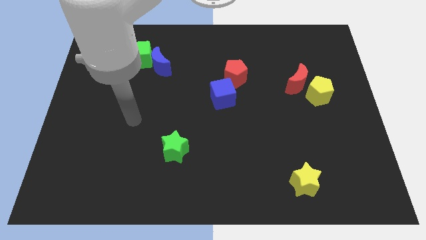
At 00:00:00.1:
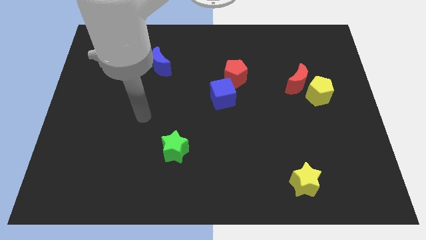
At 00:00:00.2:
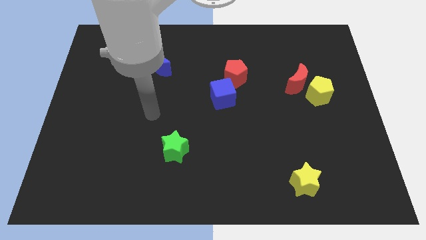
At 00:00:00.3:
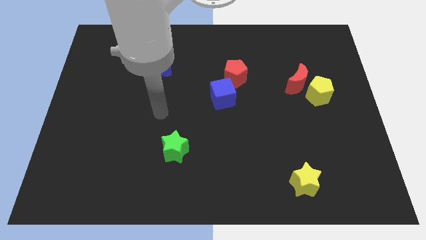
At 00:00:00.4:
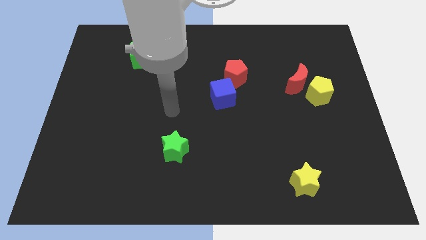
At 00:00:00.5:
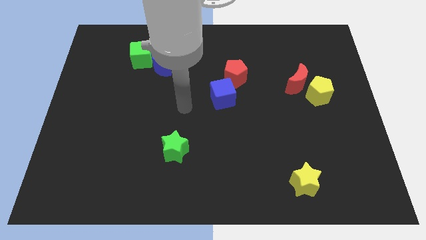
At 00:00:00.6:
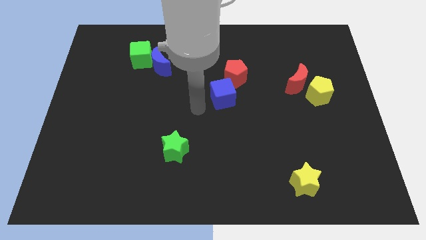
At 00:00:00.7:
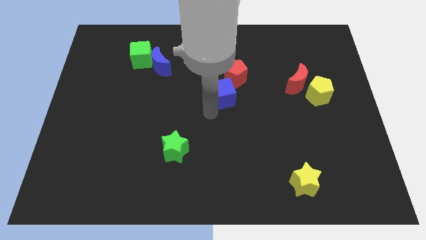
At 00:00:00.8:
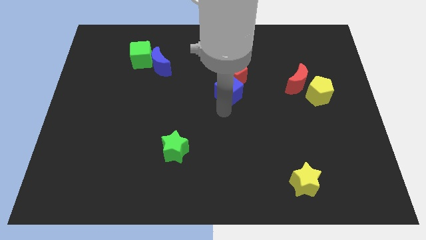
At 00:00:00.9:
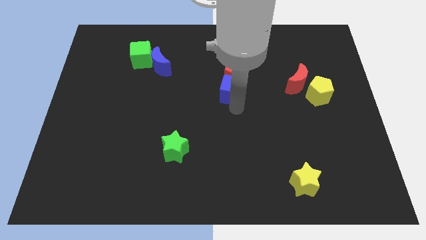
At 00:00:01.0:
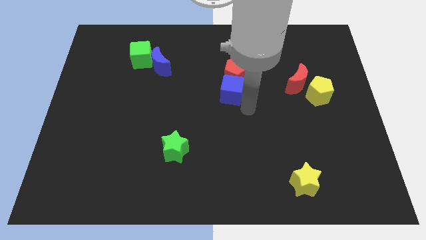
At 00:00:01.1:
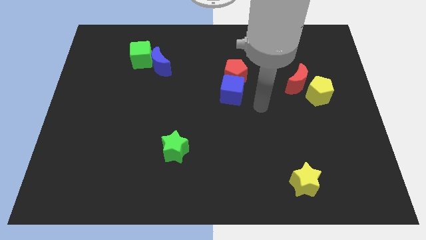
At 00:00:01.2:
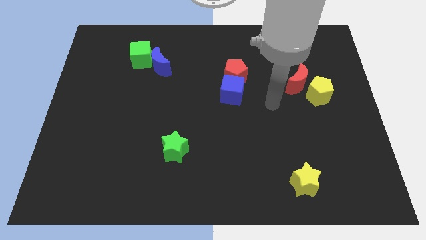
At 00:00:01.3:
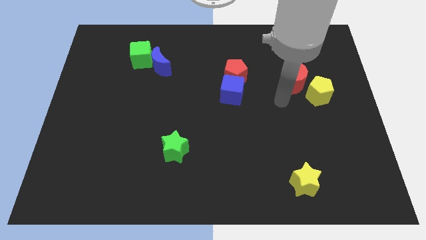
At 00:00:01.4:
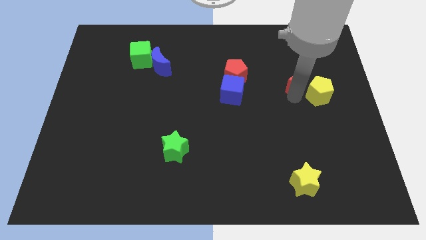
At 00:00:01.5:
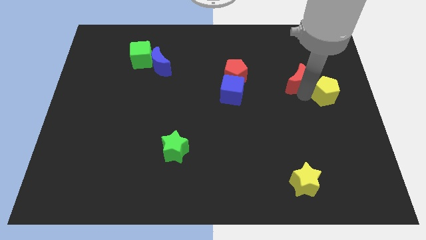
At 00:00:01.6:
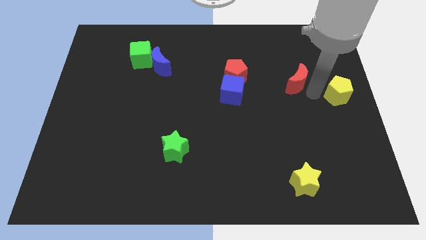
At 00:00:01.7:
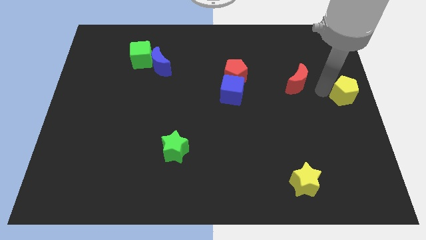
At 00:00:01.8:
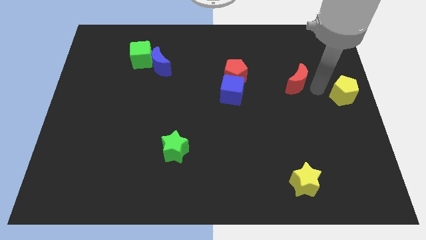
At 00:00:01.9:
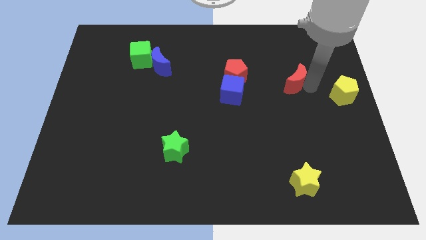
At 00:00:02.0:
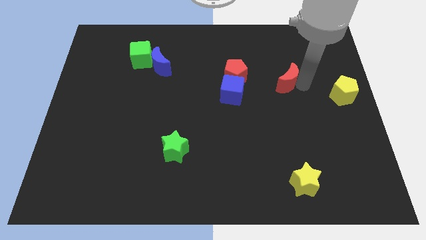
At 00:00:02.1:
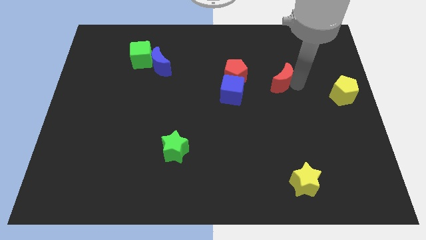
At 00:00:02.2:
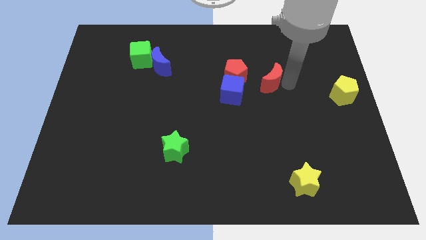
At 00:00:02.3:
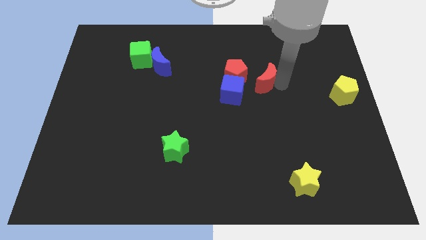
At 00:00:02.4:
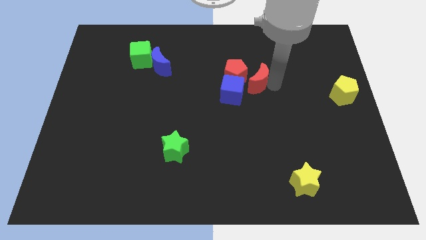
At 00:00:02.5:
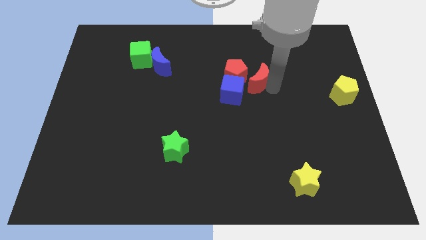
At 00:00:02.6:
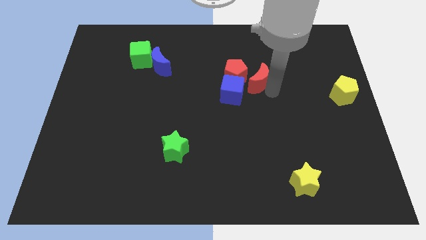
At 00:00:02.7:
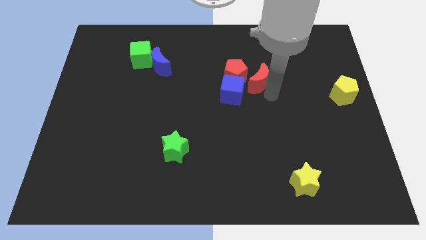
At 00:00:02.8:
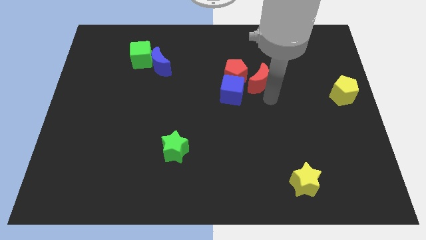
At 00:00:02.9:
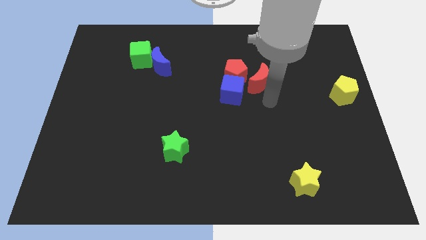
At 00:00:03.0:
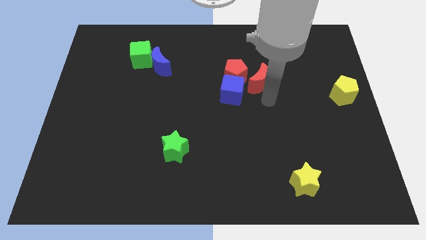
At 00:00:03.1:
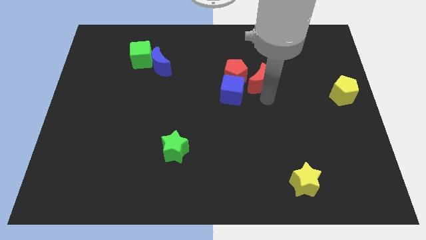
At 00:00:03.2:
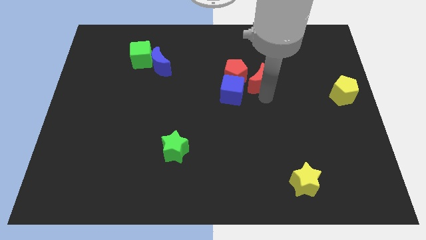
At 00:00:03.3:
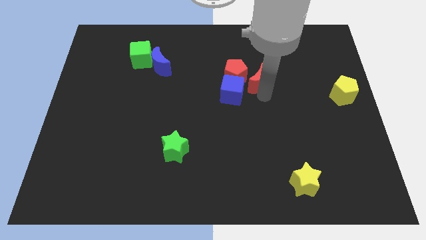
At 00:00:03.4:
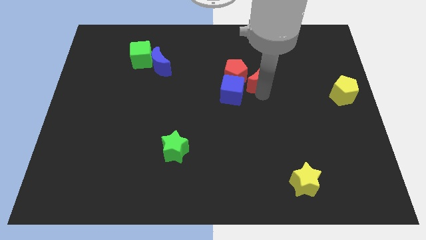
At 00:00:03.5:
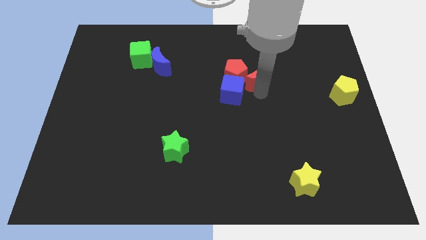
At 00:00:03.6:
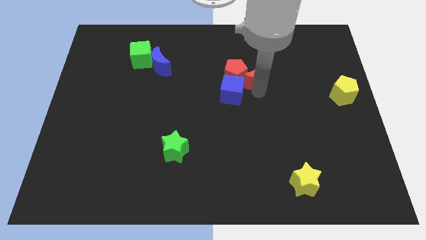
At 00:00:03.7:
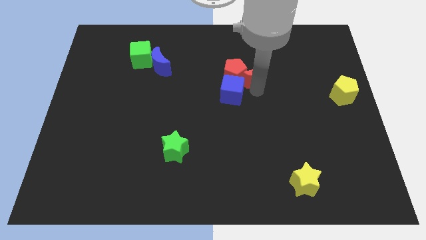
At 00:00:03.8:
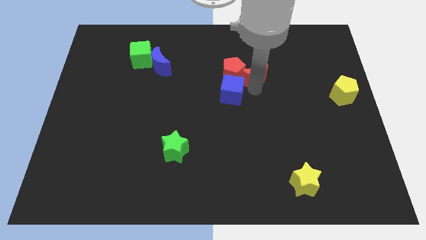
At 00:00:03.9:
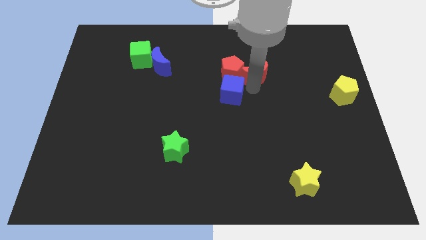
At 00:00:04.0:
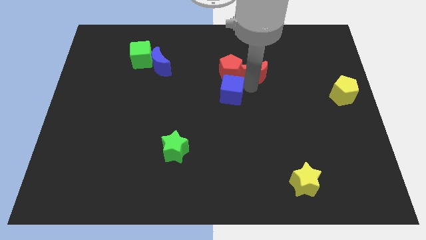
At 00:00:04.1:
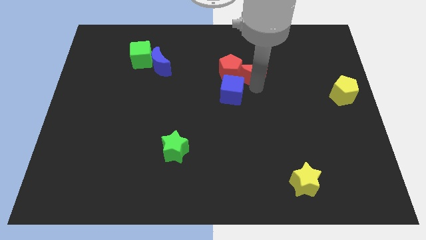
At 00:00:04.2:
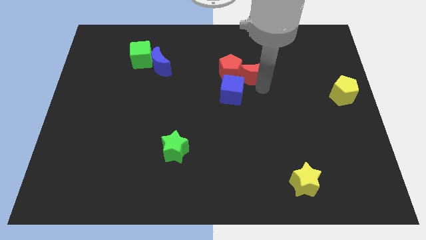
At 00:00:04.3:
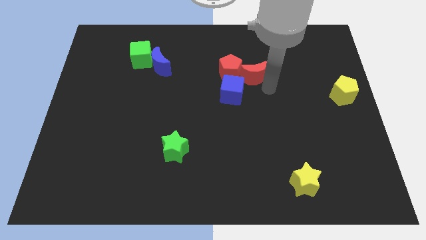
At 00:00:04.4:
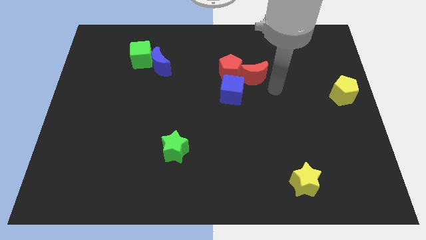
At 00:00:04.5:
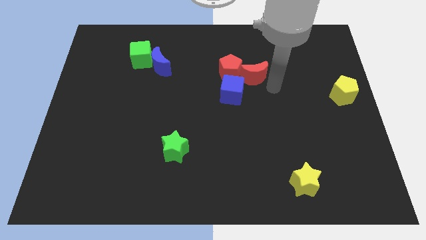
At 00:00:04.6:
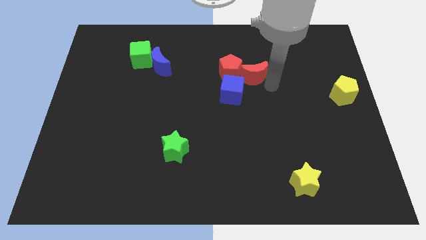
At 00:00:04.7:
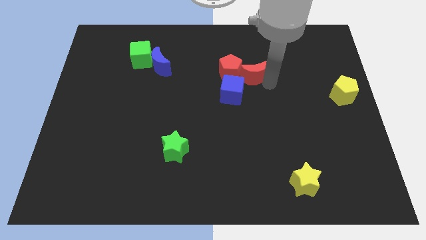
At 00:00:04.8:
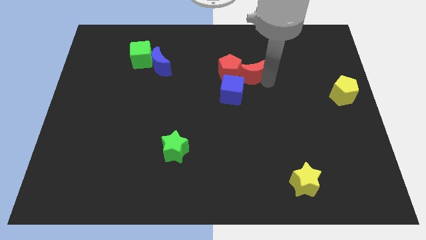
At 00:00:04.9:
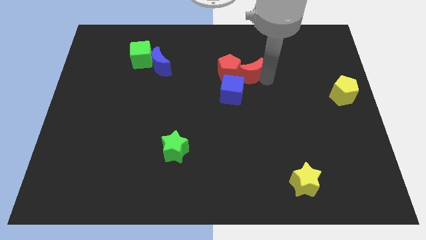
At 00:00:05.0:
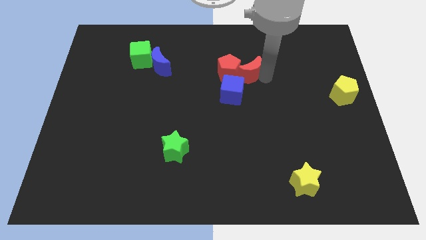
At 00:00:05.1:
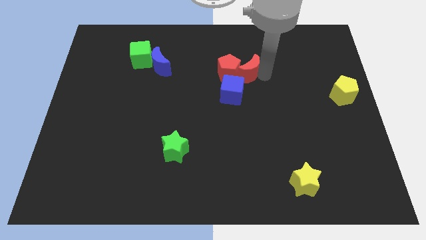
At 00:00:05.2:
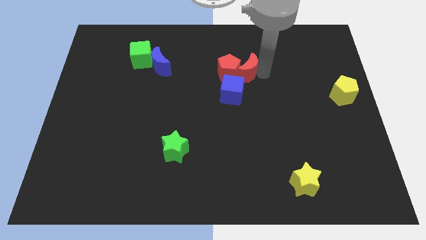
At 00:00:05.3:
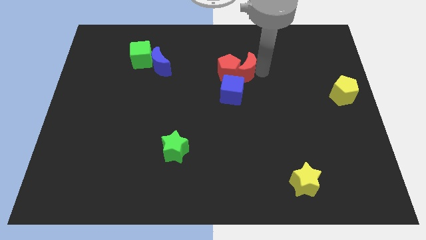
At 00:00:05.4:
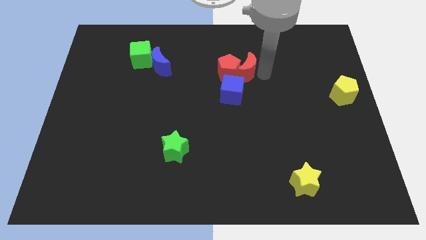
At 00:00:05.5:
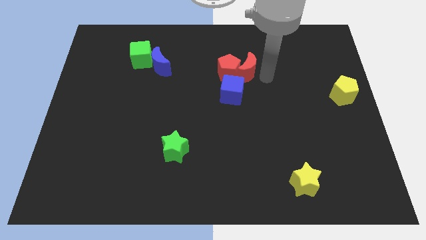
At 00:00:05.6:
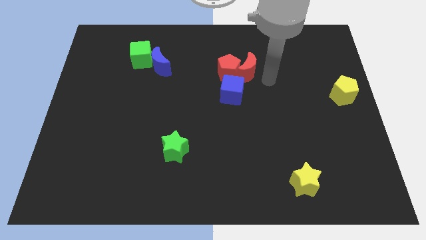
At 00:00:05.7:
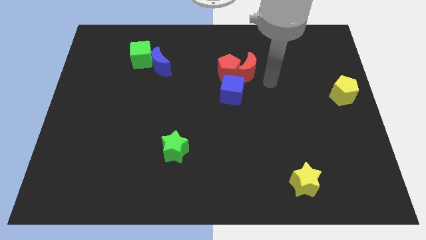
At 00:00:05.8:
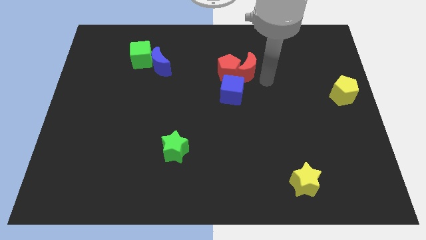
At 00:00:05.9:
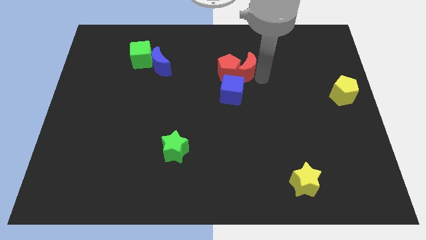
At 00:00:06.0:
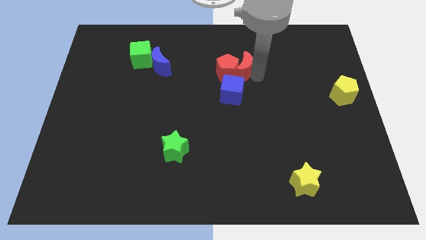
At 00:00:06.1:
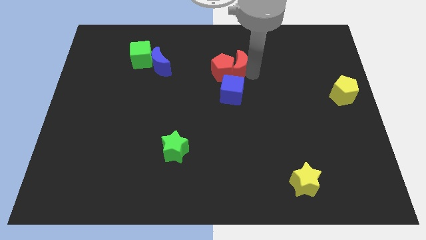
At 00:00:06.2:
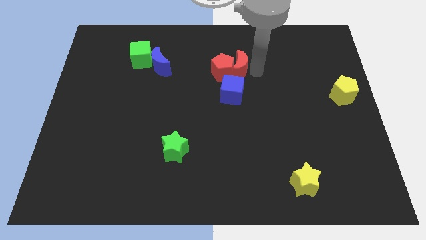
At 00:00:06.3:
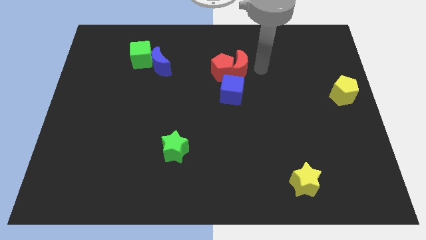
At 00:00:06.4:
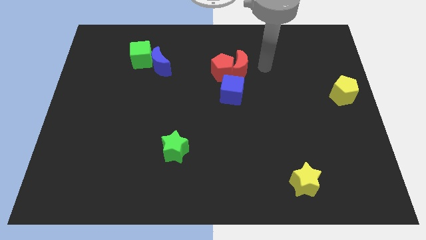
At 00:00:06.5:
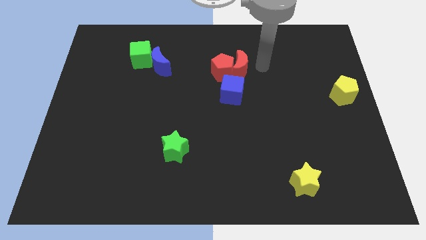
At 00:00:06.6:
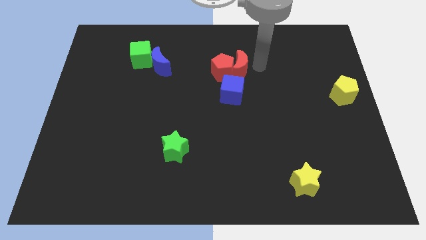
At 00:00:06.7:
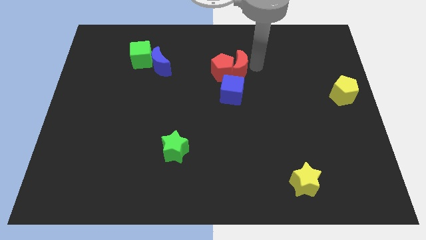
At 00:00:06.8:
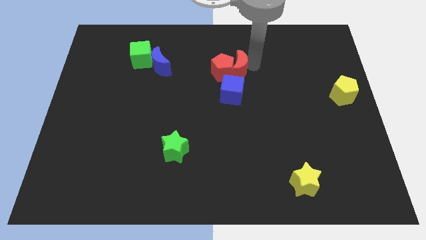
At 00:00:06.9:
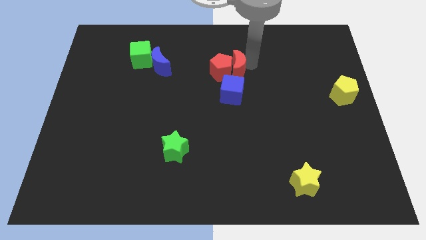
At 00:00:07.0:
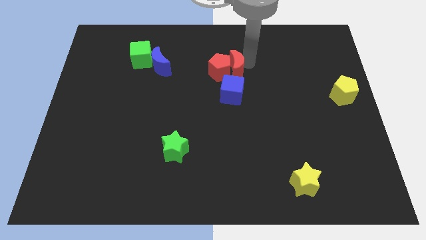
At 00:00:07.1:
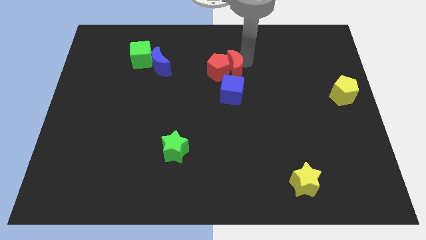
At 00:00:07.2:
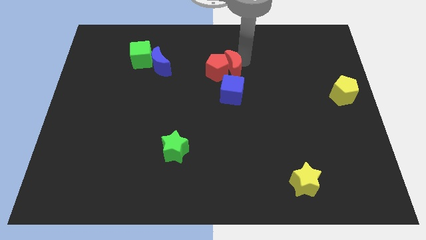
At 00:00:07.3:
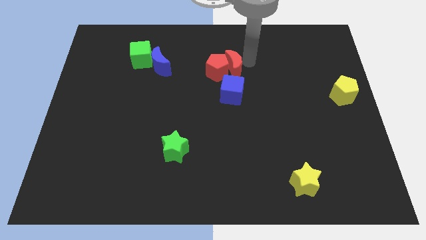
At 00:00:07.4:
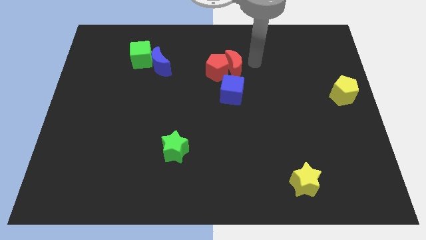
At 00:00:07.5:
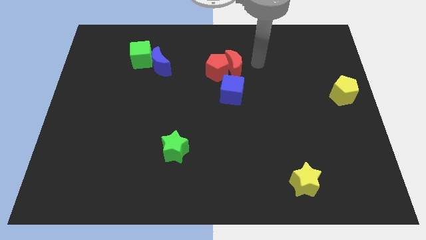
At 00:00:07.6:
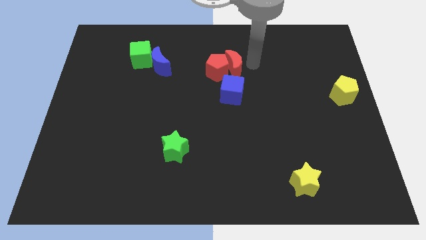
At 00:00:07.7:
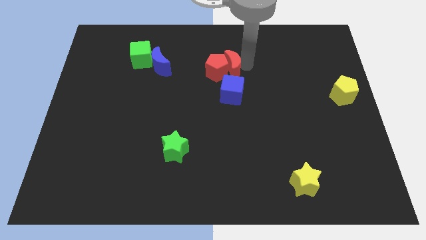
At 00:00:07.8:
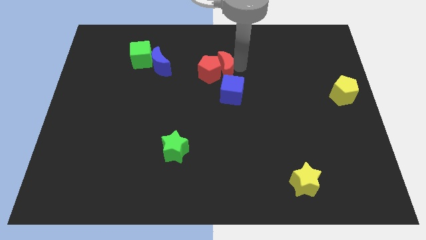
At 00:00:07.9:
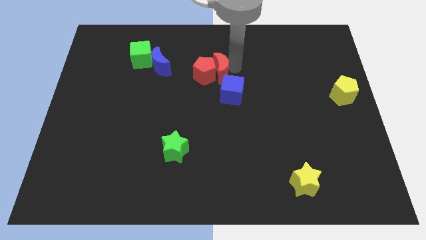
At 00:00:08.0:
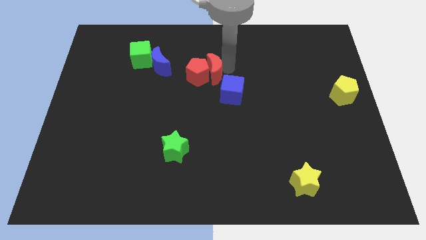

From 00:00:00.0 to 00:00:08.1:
push the red moon to the left
